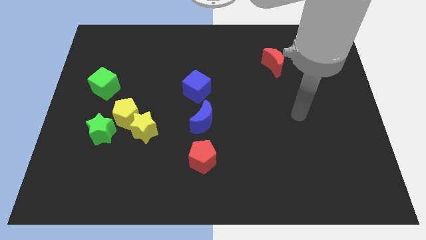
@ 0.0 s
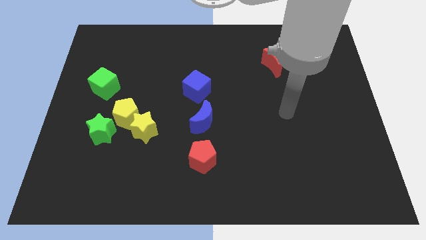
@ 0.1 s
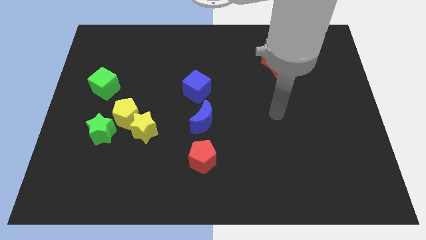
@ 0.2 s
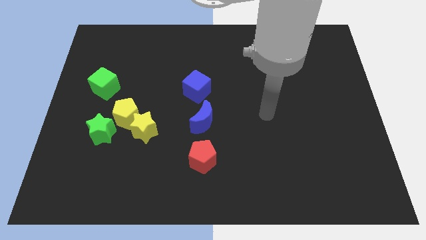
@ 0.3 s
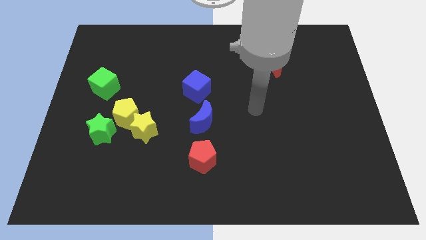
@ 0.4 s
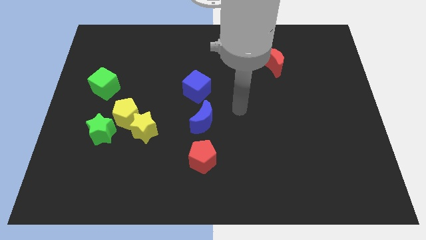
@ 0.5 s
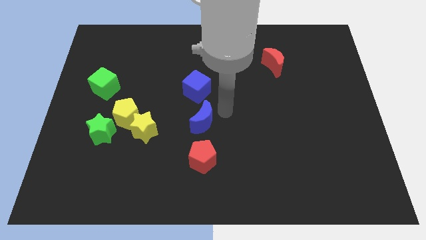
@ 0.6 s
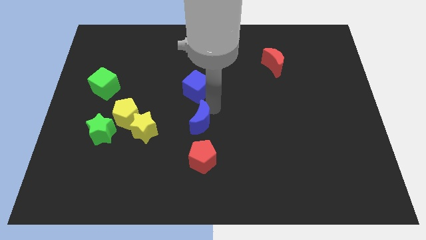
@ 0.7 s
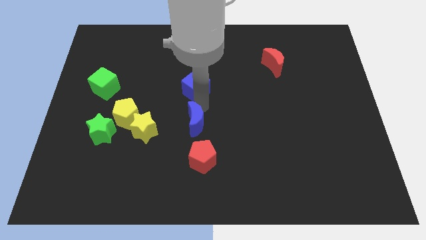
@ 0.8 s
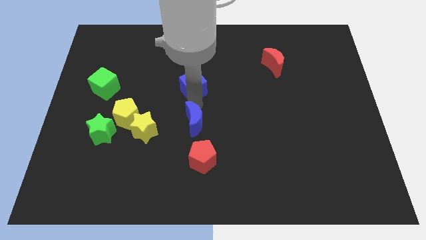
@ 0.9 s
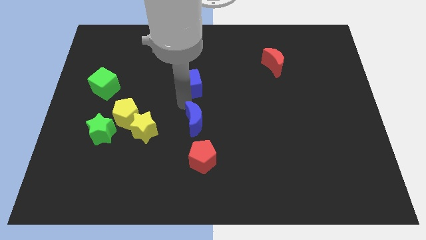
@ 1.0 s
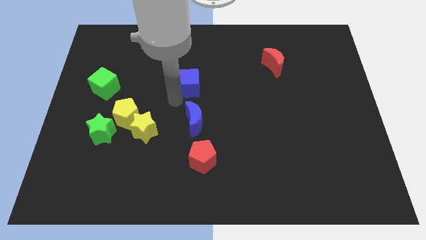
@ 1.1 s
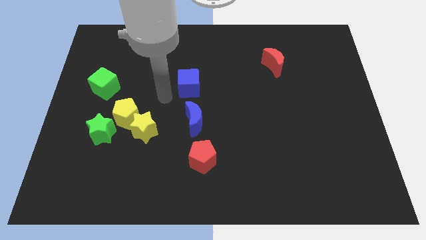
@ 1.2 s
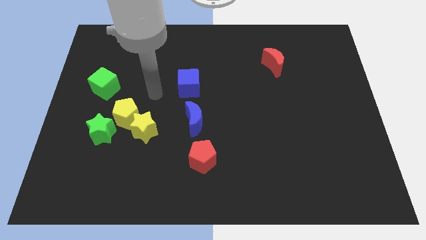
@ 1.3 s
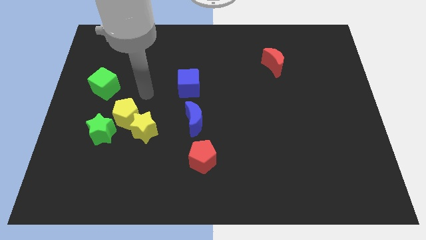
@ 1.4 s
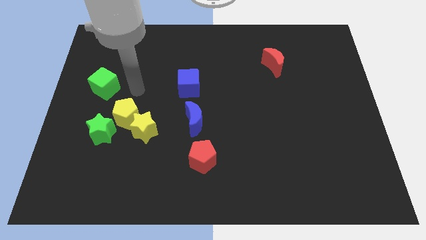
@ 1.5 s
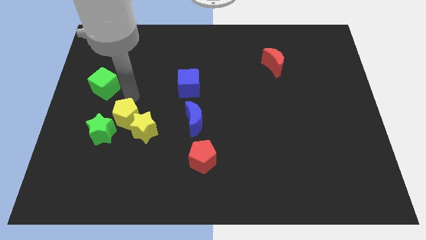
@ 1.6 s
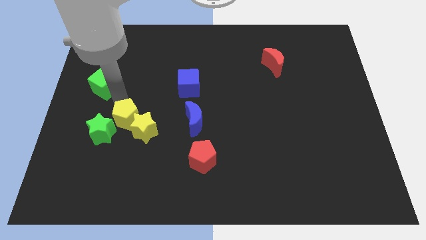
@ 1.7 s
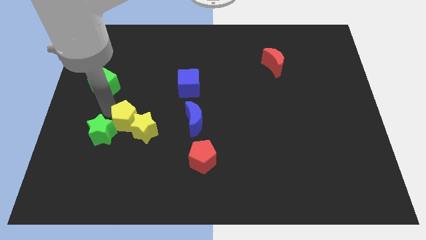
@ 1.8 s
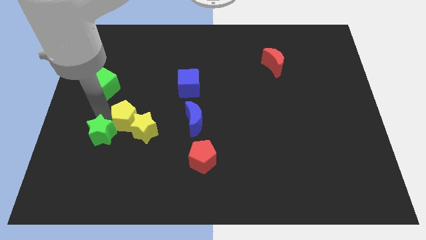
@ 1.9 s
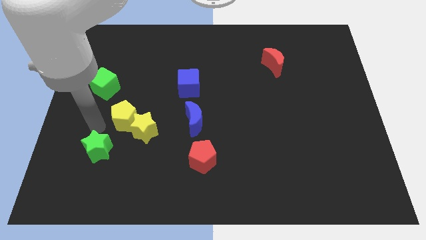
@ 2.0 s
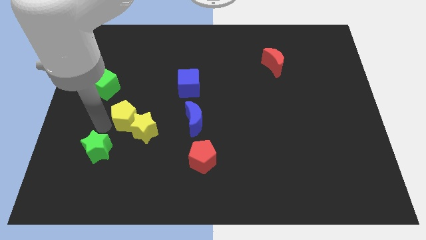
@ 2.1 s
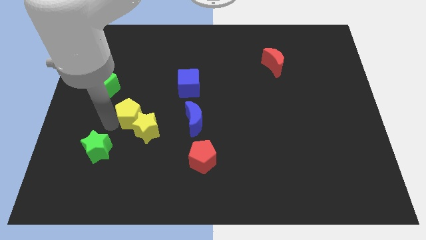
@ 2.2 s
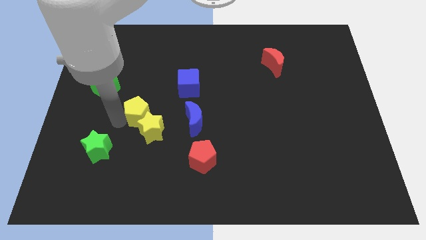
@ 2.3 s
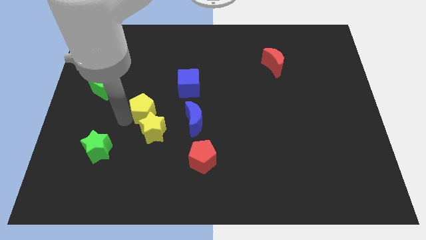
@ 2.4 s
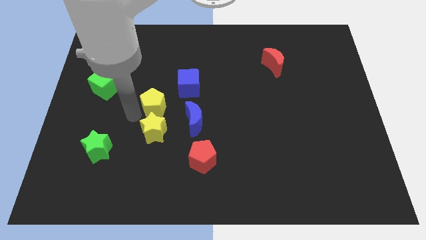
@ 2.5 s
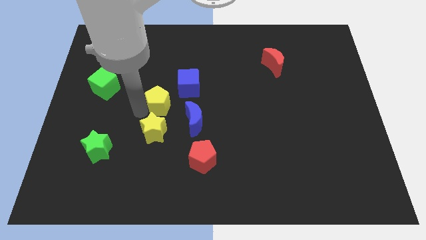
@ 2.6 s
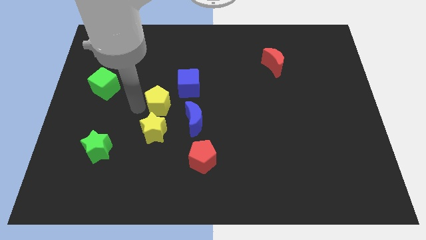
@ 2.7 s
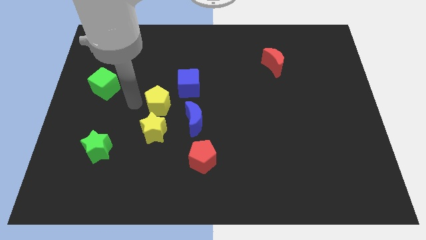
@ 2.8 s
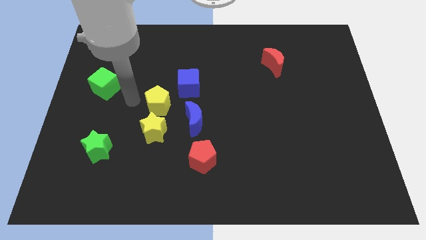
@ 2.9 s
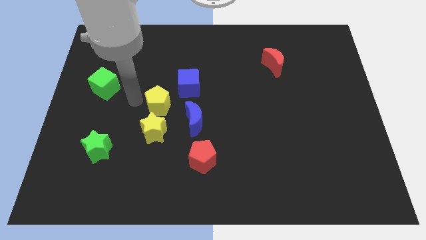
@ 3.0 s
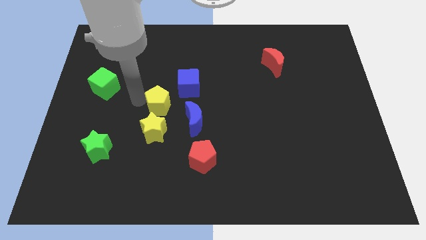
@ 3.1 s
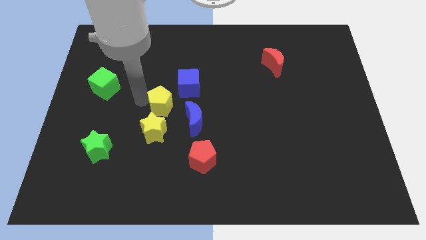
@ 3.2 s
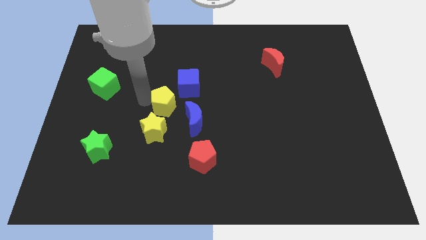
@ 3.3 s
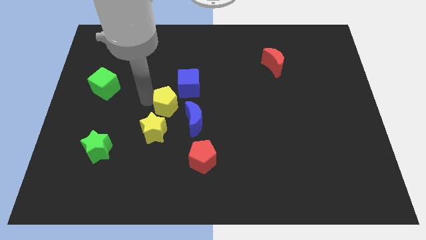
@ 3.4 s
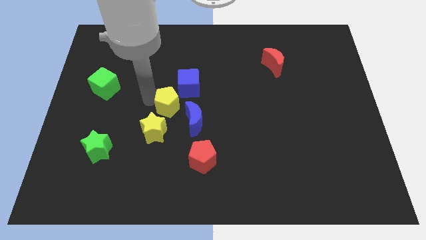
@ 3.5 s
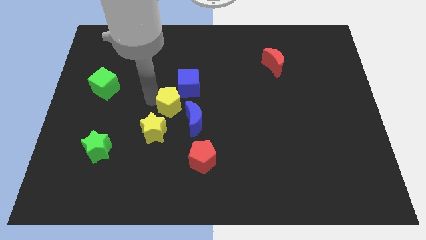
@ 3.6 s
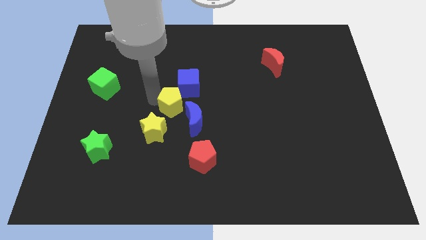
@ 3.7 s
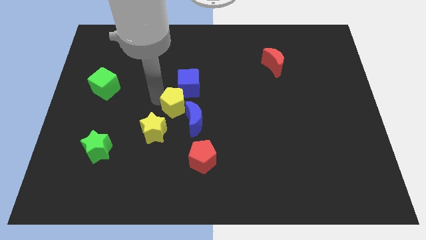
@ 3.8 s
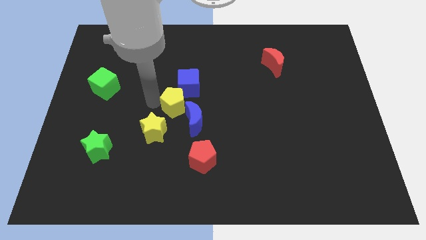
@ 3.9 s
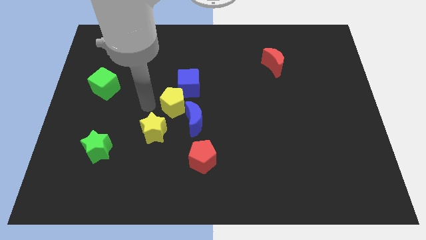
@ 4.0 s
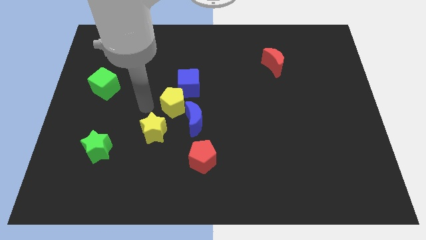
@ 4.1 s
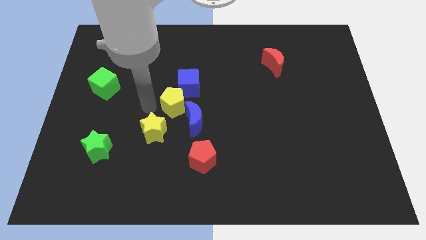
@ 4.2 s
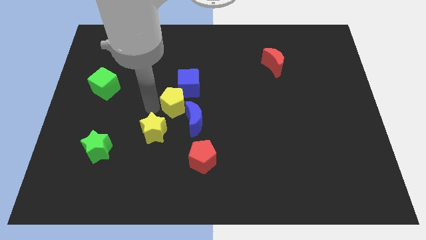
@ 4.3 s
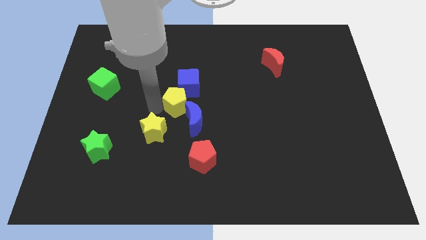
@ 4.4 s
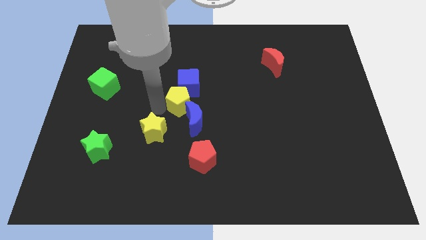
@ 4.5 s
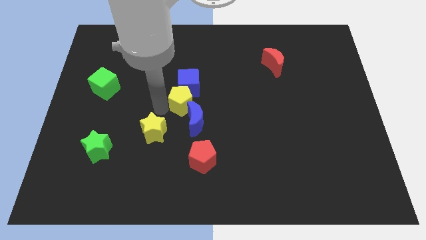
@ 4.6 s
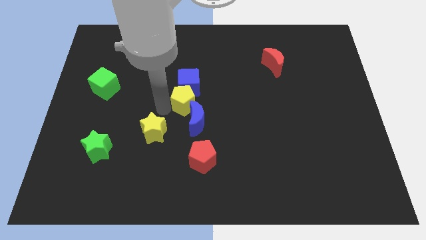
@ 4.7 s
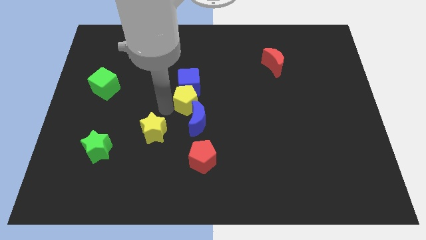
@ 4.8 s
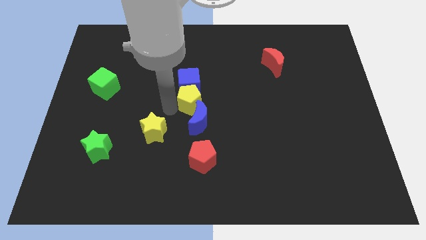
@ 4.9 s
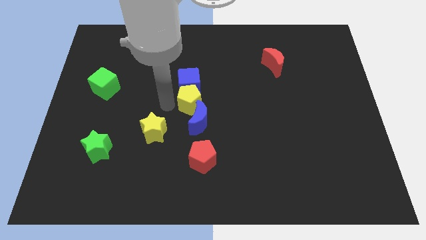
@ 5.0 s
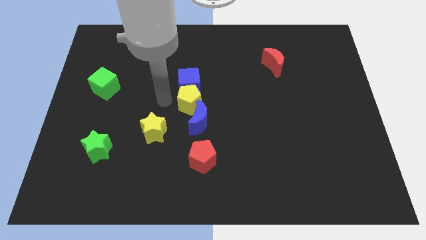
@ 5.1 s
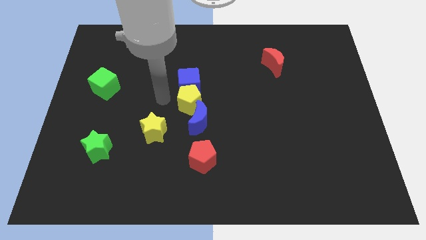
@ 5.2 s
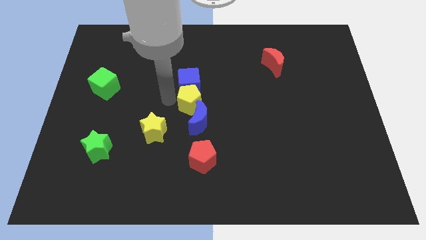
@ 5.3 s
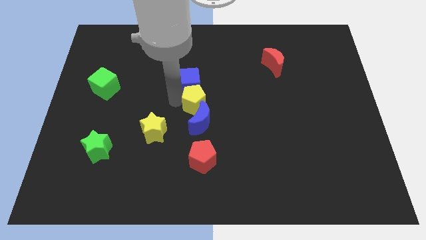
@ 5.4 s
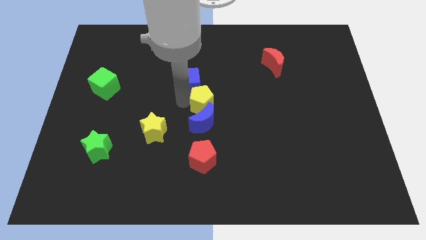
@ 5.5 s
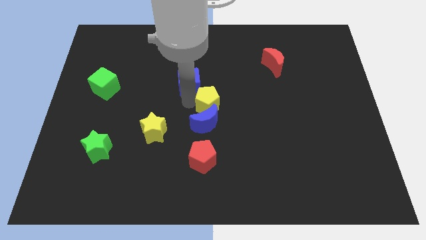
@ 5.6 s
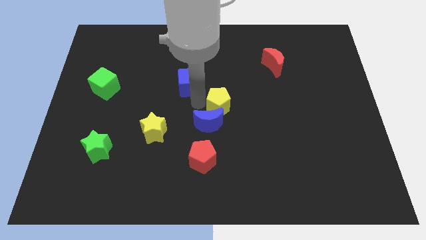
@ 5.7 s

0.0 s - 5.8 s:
move the yellow pentagon to the right

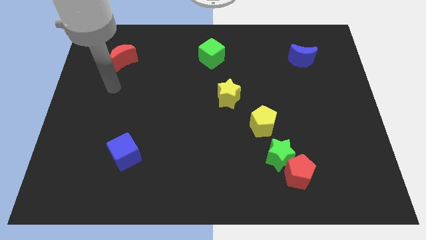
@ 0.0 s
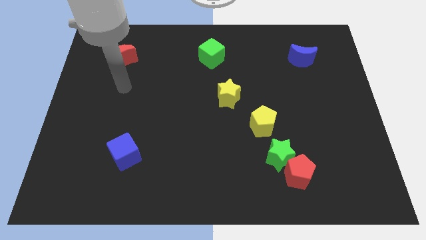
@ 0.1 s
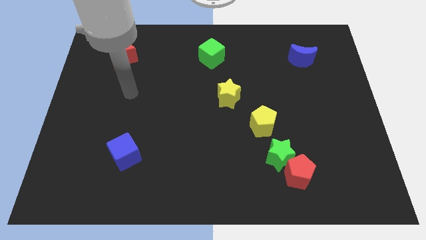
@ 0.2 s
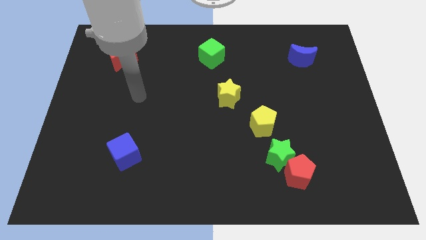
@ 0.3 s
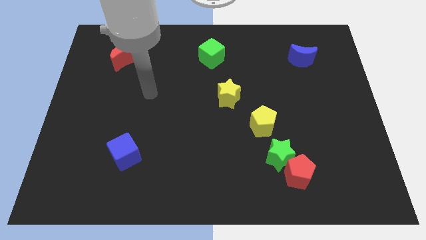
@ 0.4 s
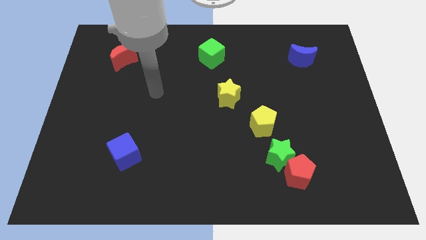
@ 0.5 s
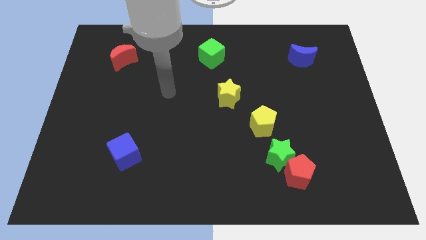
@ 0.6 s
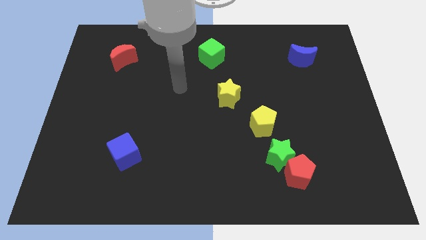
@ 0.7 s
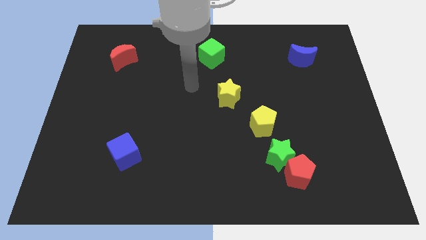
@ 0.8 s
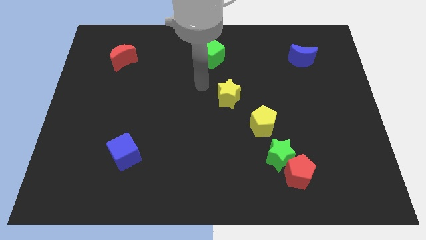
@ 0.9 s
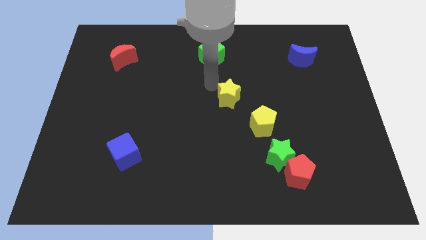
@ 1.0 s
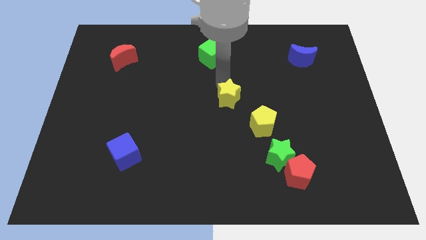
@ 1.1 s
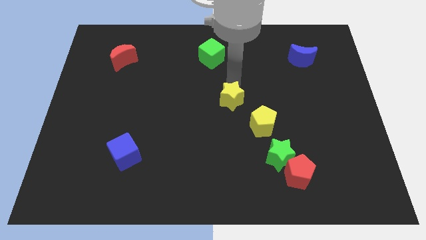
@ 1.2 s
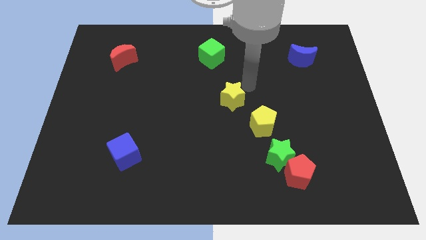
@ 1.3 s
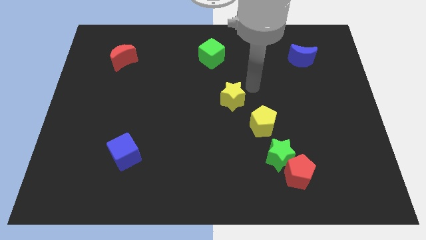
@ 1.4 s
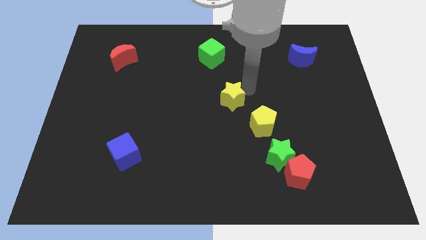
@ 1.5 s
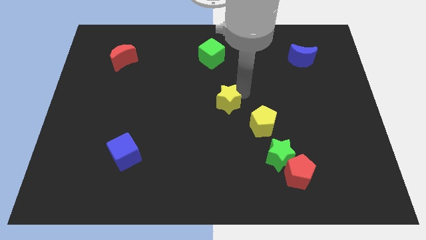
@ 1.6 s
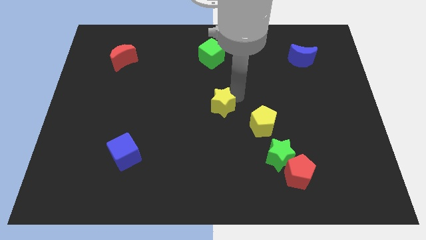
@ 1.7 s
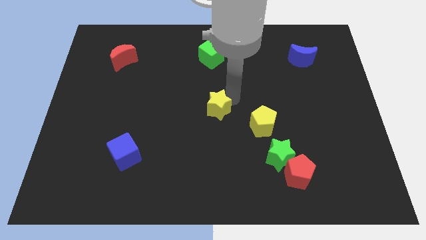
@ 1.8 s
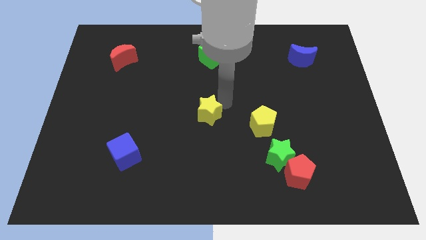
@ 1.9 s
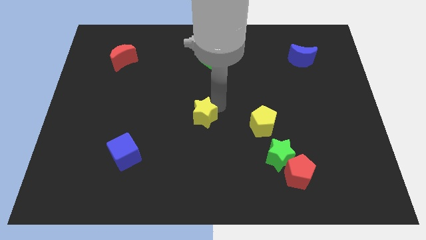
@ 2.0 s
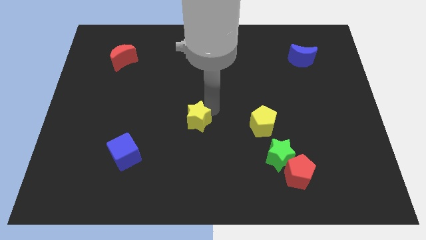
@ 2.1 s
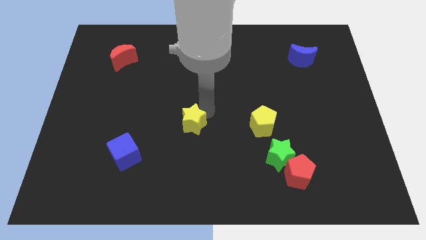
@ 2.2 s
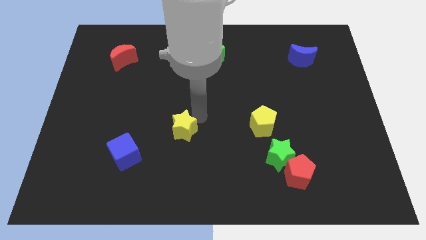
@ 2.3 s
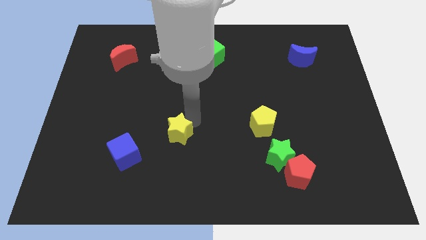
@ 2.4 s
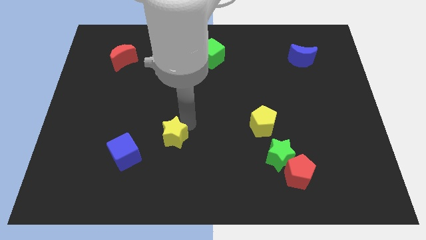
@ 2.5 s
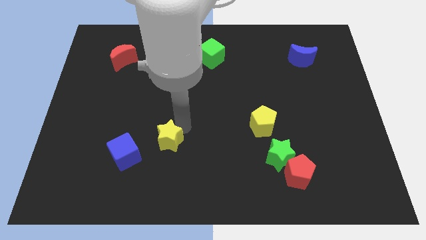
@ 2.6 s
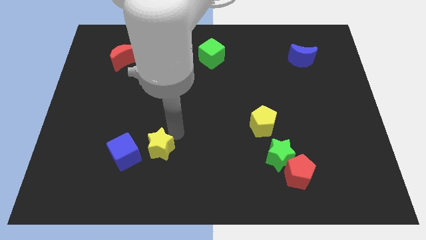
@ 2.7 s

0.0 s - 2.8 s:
push the yellow star downwards and left
